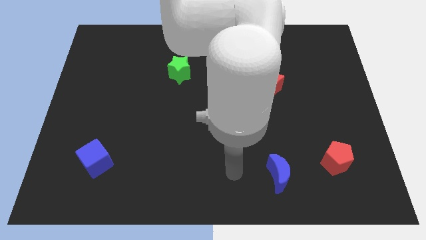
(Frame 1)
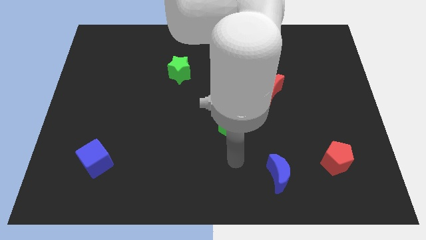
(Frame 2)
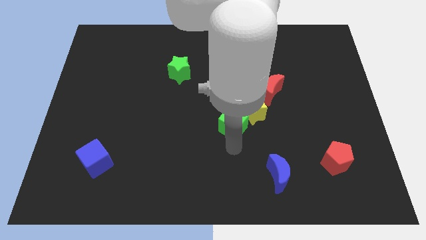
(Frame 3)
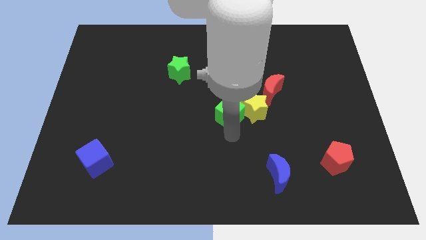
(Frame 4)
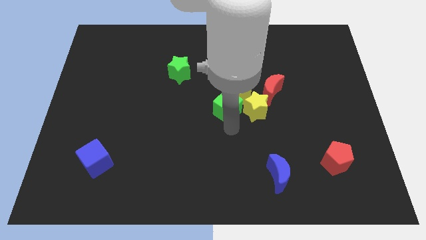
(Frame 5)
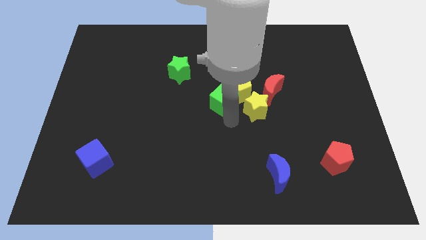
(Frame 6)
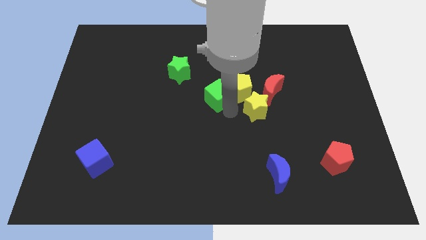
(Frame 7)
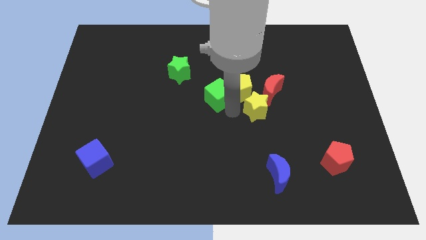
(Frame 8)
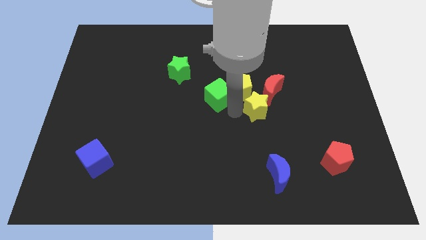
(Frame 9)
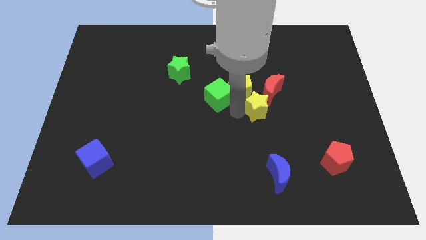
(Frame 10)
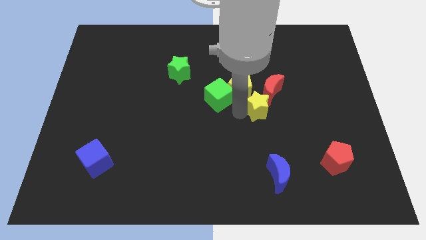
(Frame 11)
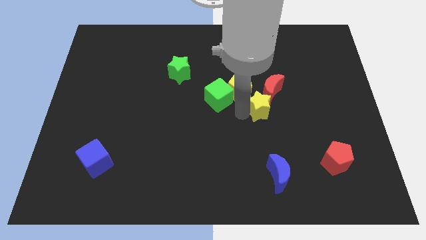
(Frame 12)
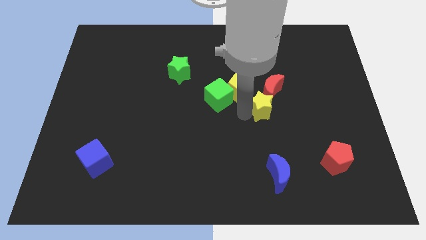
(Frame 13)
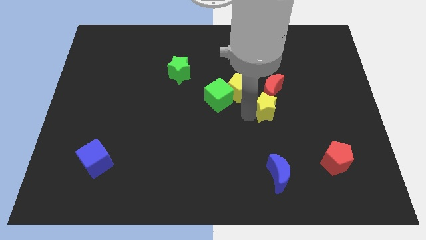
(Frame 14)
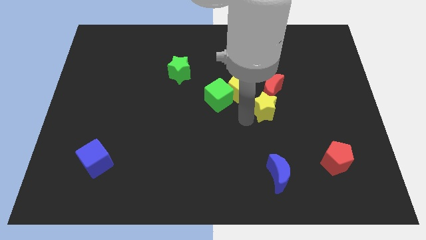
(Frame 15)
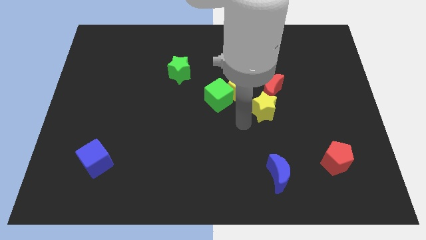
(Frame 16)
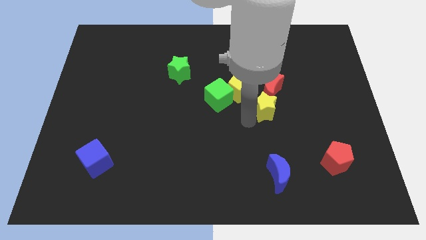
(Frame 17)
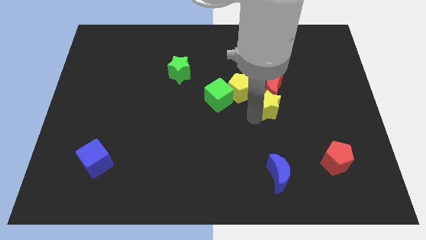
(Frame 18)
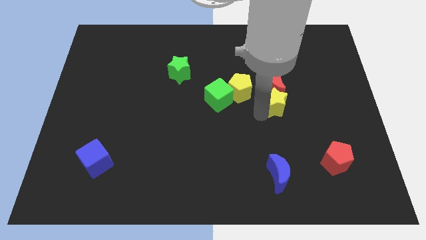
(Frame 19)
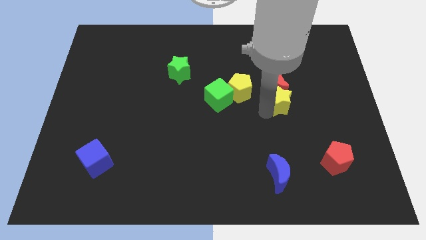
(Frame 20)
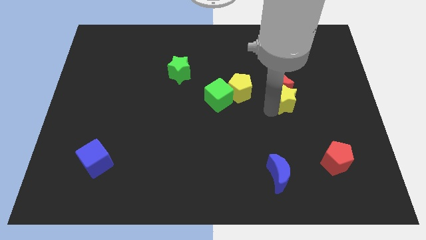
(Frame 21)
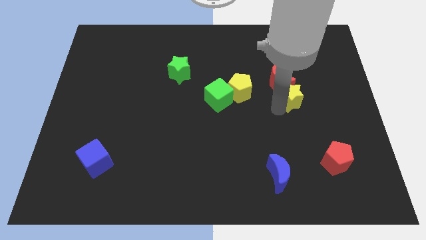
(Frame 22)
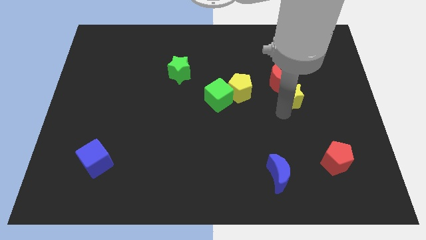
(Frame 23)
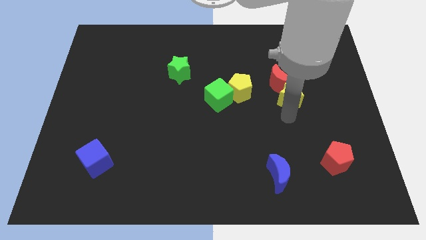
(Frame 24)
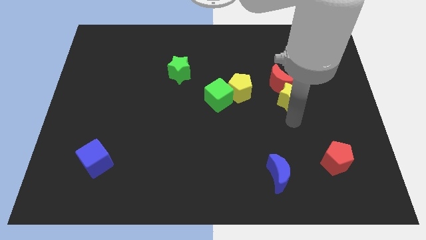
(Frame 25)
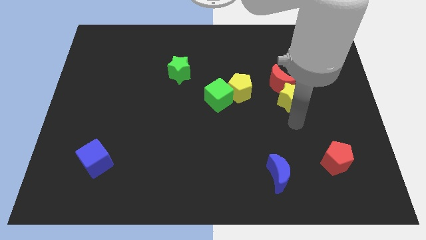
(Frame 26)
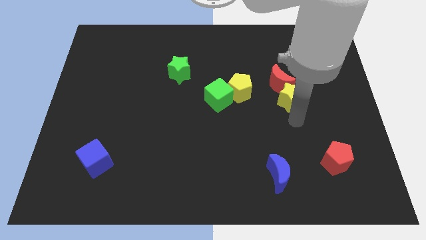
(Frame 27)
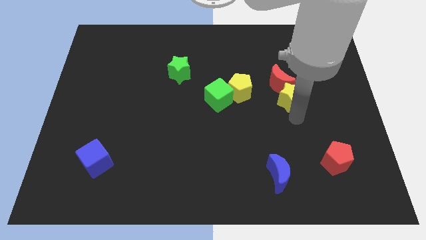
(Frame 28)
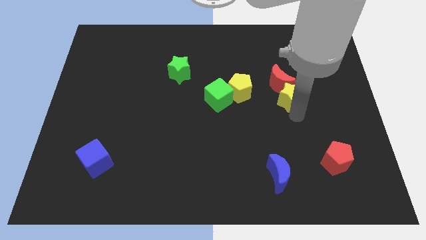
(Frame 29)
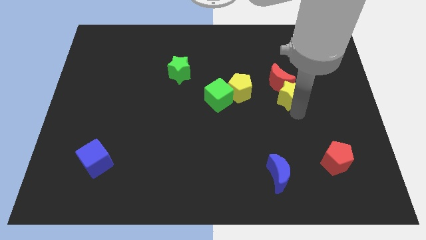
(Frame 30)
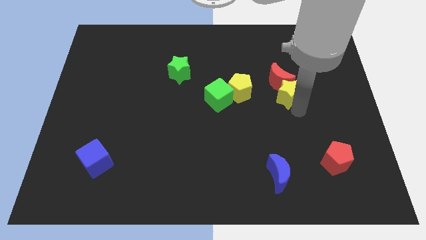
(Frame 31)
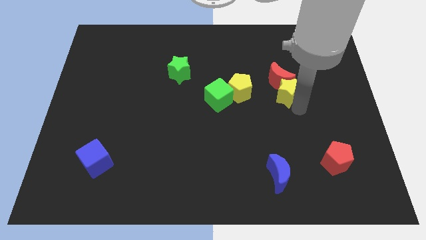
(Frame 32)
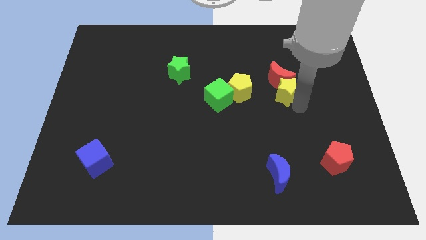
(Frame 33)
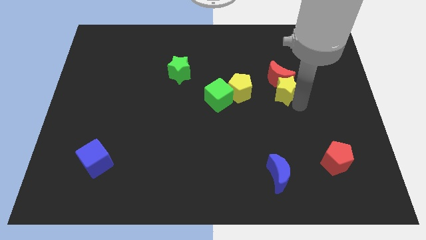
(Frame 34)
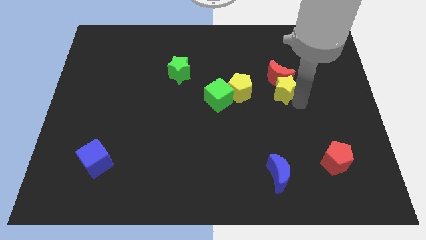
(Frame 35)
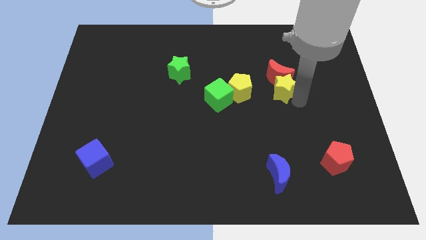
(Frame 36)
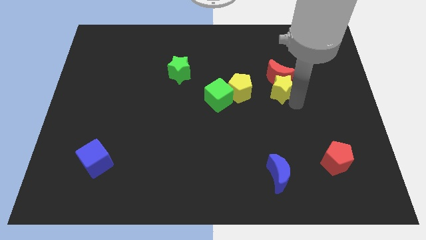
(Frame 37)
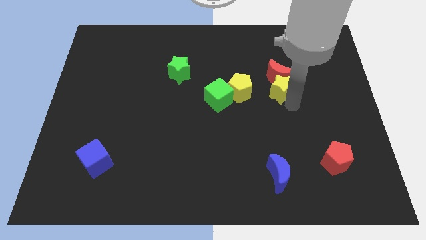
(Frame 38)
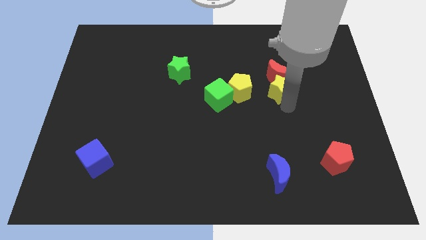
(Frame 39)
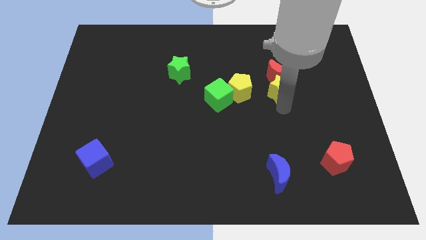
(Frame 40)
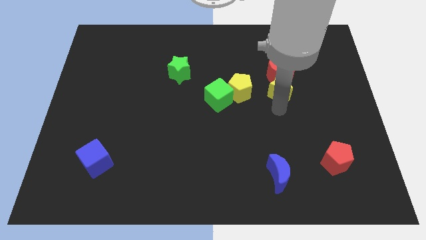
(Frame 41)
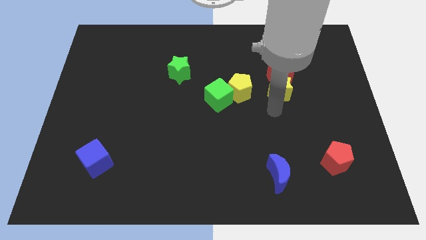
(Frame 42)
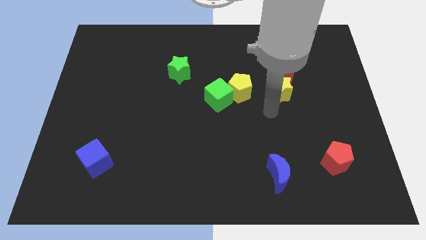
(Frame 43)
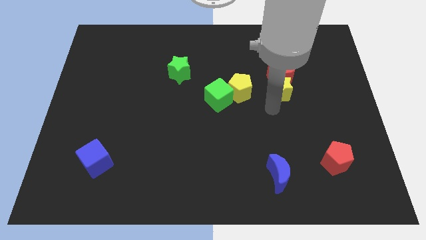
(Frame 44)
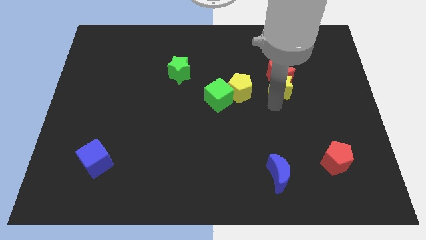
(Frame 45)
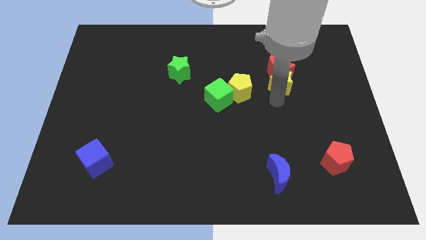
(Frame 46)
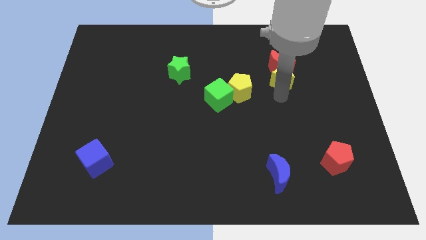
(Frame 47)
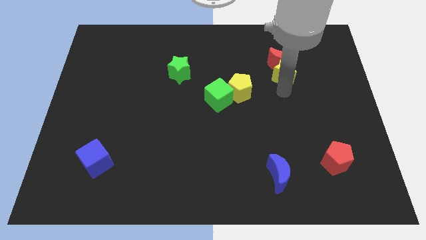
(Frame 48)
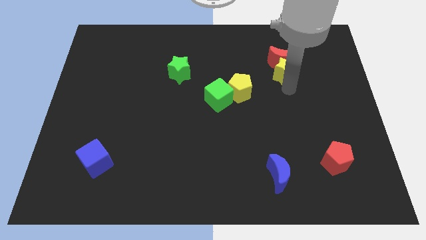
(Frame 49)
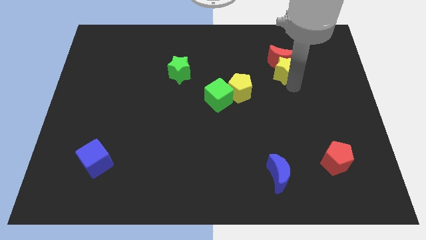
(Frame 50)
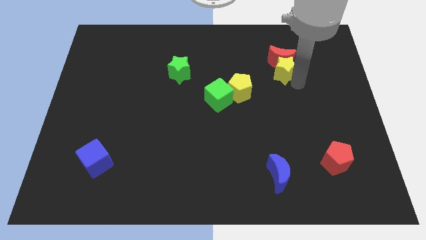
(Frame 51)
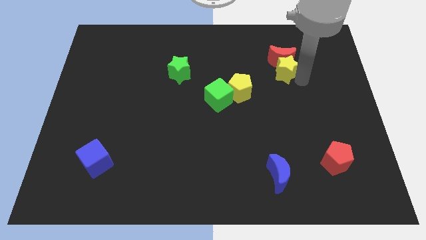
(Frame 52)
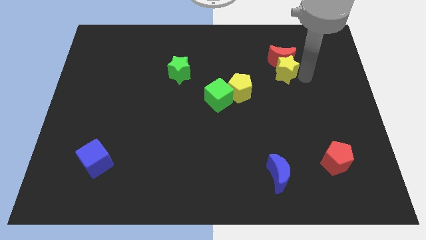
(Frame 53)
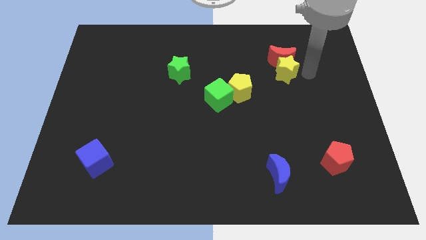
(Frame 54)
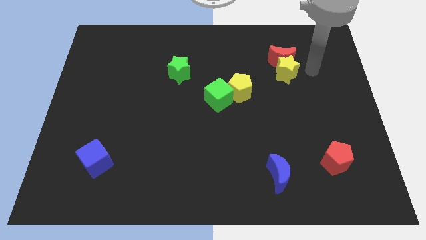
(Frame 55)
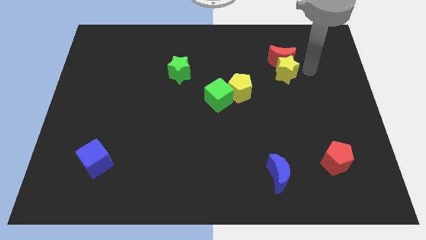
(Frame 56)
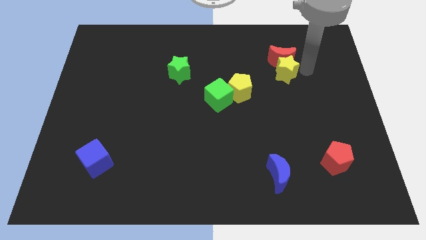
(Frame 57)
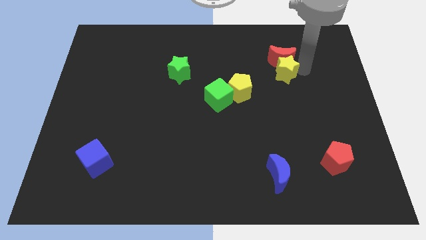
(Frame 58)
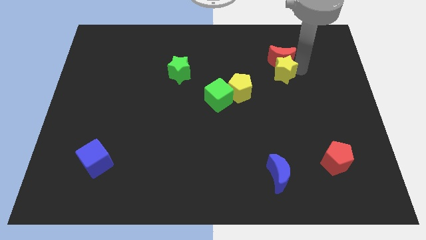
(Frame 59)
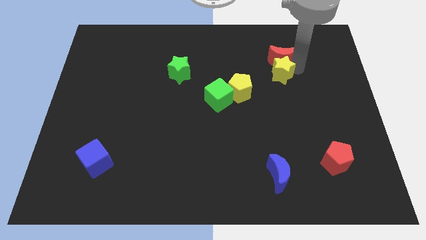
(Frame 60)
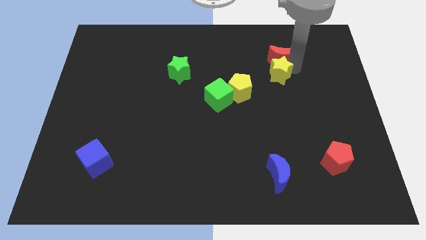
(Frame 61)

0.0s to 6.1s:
slide the yellow star diagonally up and to the right of the yellow pentagon
